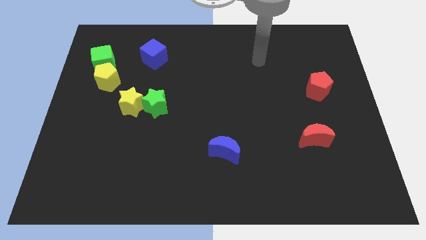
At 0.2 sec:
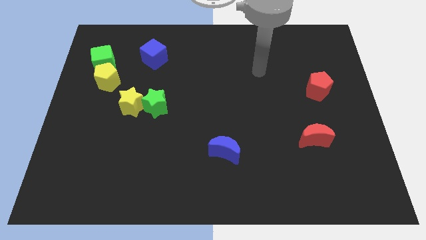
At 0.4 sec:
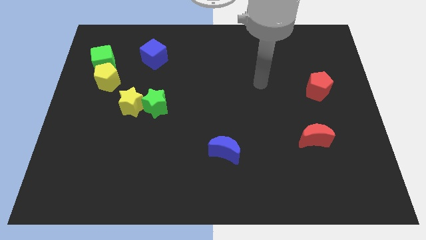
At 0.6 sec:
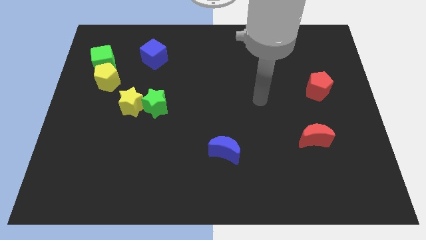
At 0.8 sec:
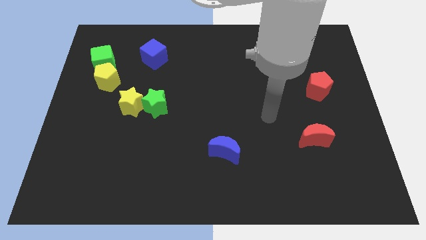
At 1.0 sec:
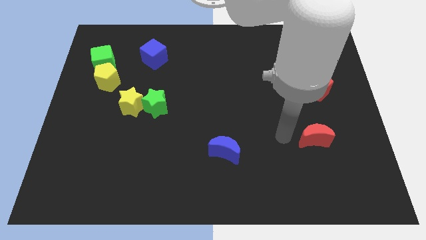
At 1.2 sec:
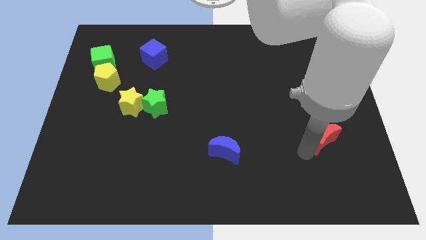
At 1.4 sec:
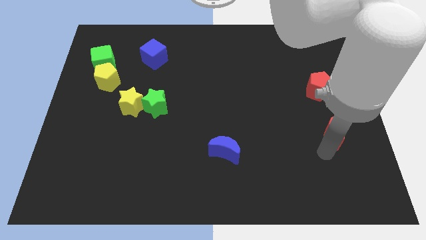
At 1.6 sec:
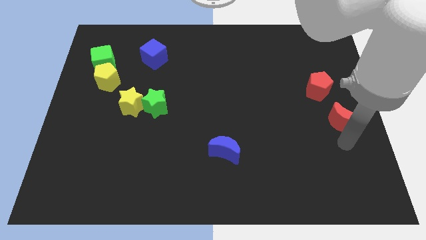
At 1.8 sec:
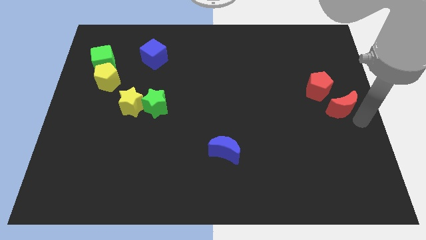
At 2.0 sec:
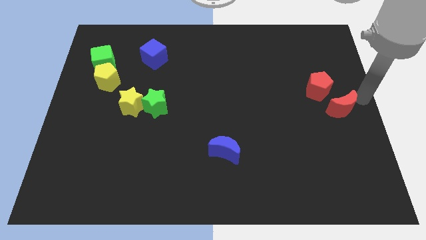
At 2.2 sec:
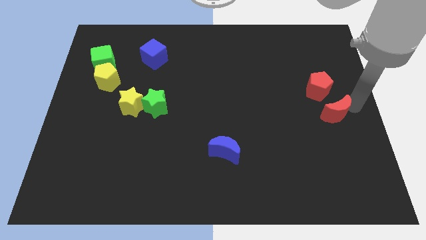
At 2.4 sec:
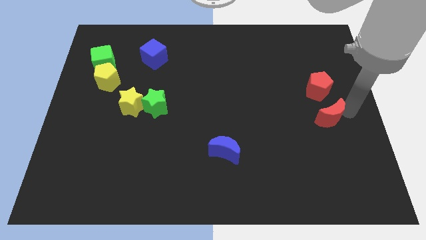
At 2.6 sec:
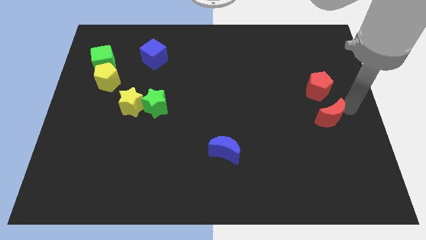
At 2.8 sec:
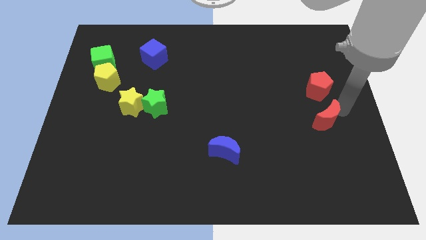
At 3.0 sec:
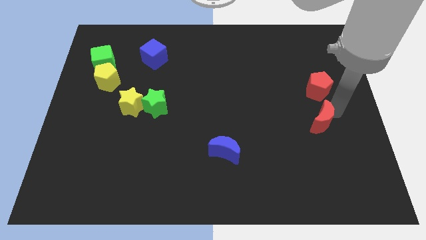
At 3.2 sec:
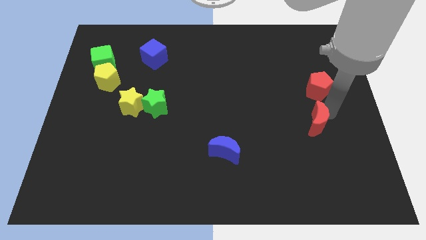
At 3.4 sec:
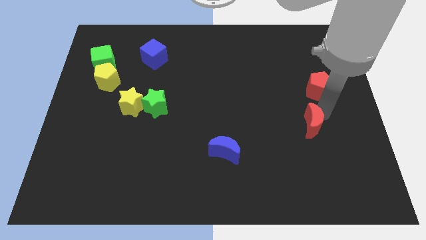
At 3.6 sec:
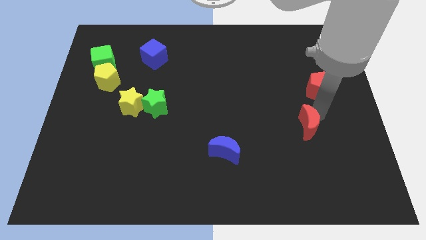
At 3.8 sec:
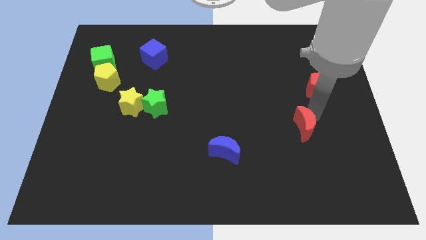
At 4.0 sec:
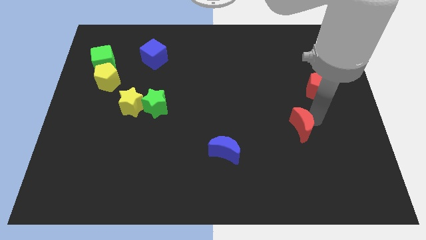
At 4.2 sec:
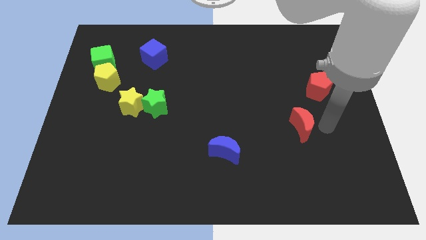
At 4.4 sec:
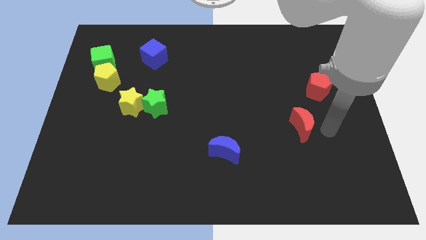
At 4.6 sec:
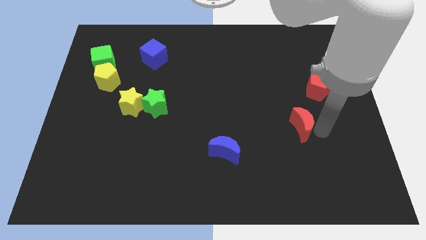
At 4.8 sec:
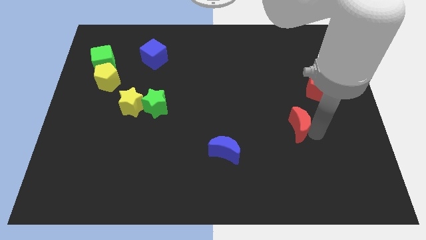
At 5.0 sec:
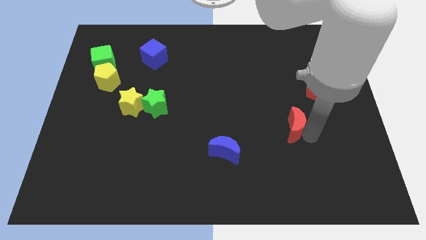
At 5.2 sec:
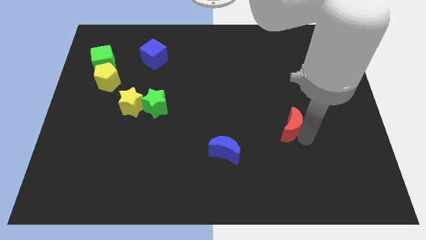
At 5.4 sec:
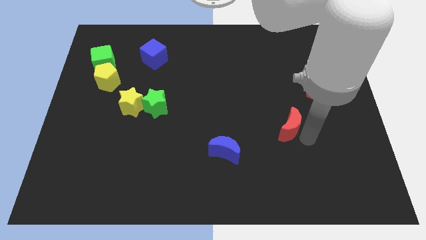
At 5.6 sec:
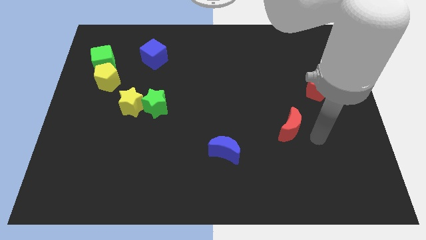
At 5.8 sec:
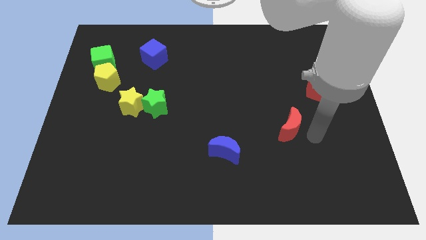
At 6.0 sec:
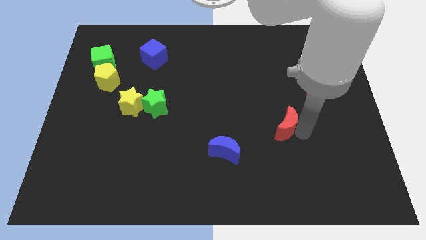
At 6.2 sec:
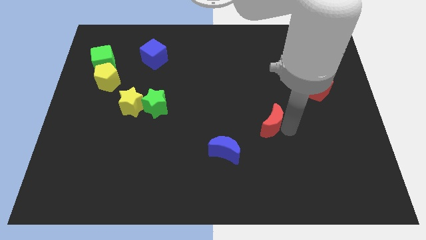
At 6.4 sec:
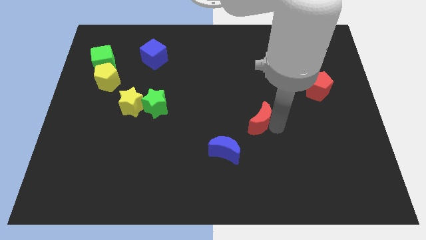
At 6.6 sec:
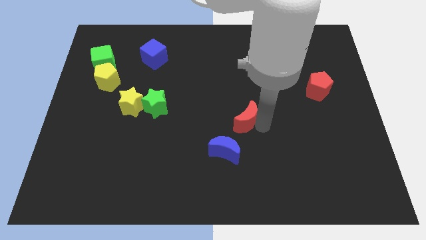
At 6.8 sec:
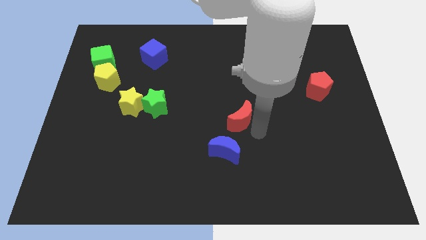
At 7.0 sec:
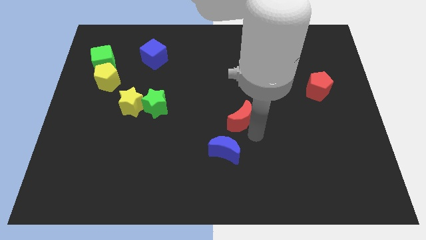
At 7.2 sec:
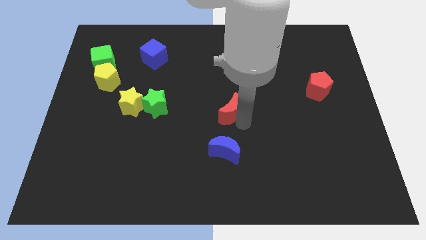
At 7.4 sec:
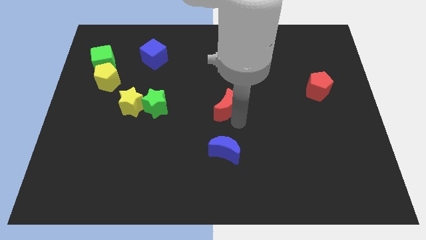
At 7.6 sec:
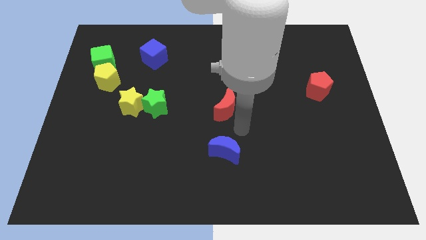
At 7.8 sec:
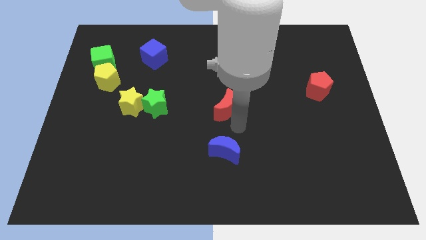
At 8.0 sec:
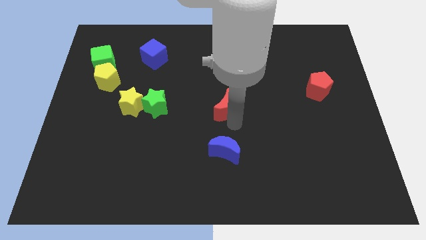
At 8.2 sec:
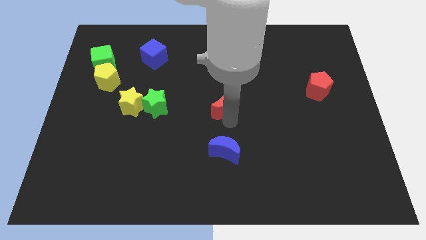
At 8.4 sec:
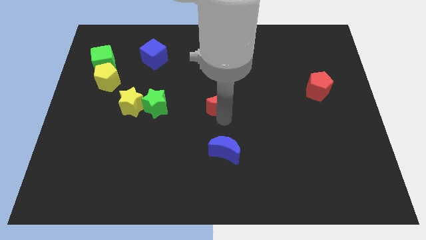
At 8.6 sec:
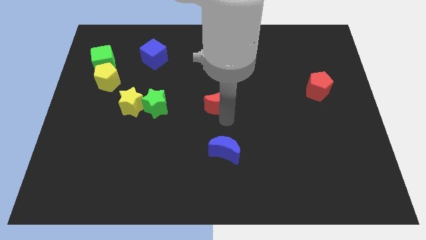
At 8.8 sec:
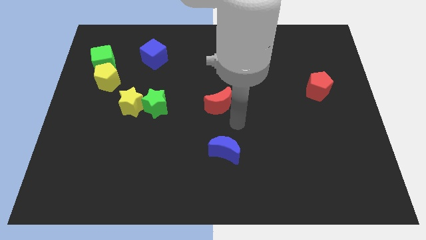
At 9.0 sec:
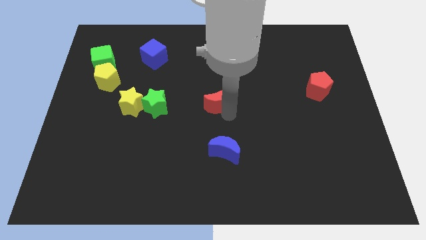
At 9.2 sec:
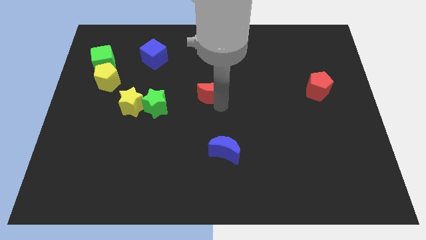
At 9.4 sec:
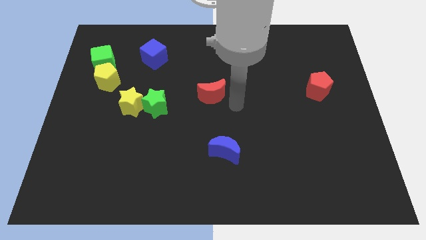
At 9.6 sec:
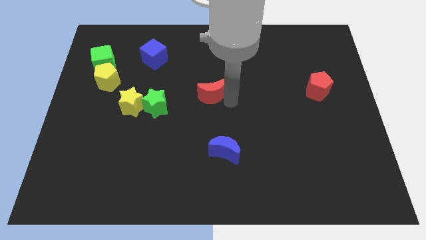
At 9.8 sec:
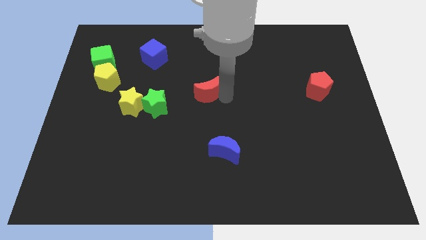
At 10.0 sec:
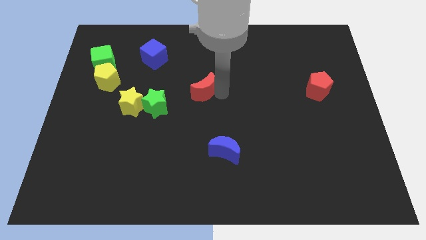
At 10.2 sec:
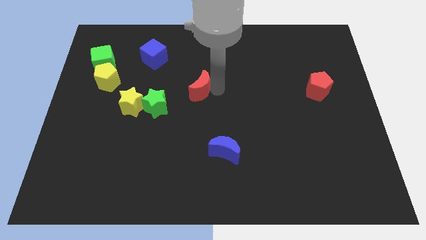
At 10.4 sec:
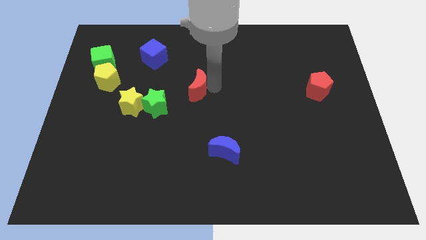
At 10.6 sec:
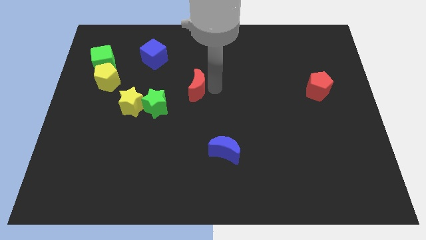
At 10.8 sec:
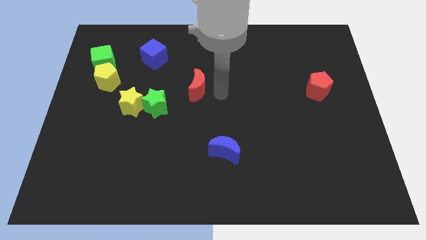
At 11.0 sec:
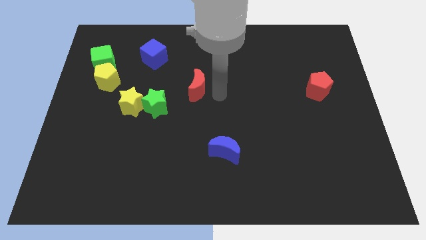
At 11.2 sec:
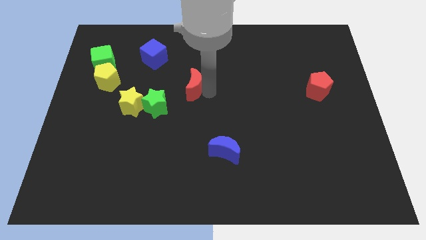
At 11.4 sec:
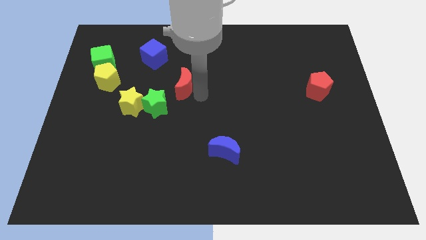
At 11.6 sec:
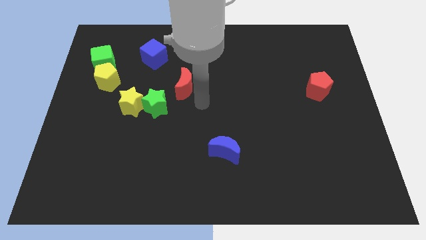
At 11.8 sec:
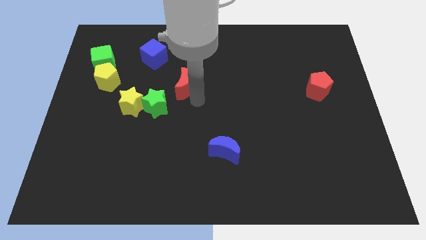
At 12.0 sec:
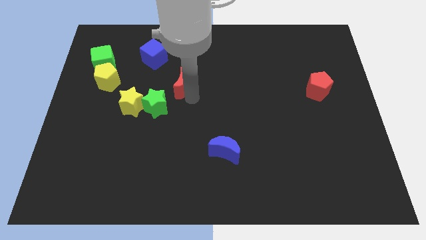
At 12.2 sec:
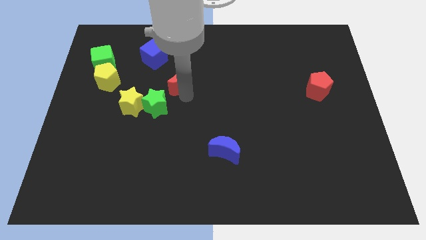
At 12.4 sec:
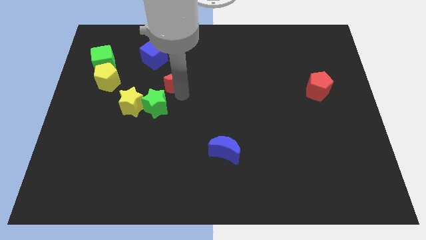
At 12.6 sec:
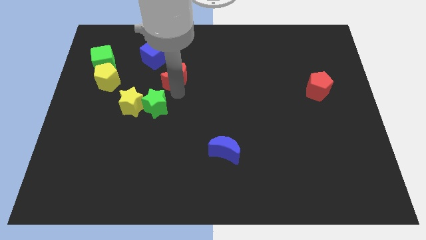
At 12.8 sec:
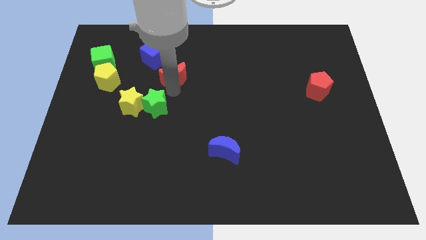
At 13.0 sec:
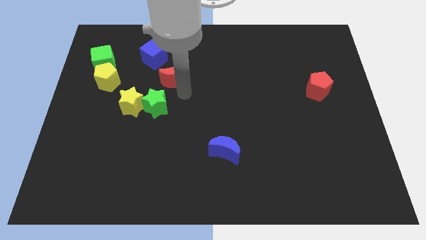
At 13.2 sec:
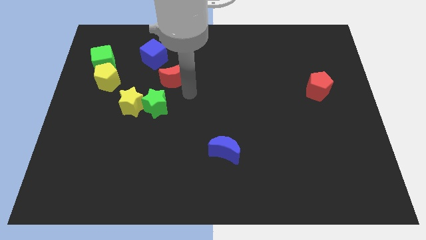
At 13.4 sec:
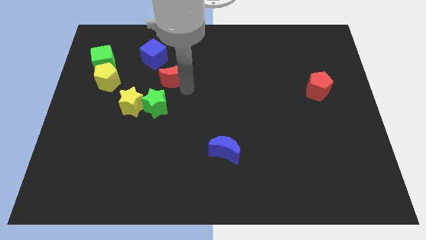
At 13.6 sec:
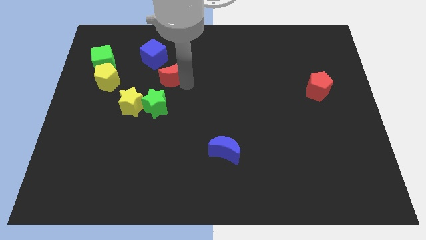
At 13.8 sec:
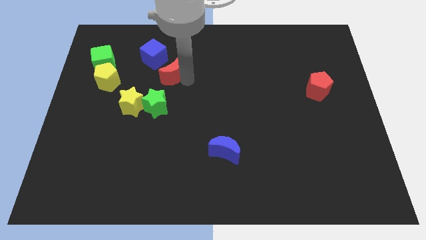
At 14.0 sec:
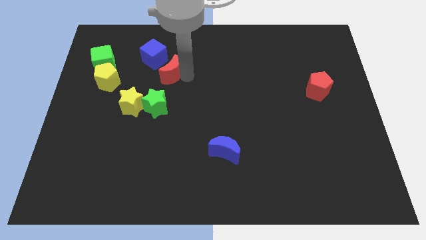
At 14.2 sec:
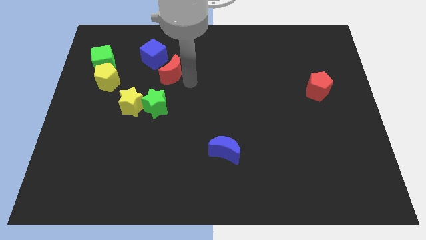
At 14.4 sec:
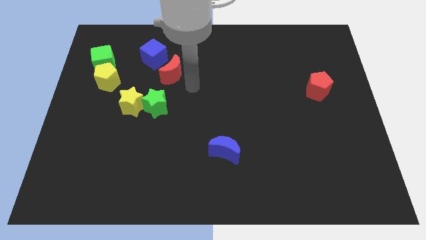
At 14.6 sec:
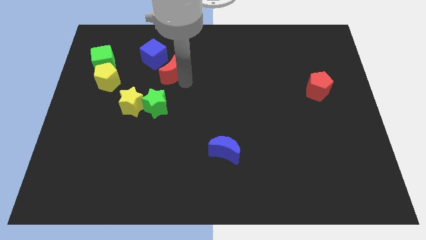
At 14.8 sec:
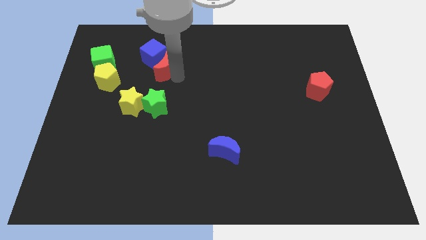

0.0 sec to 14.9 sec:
push the red moon towards the blue cube
